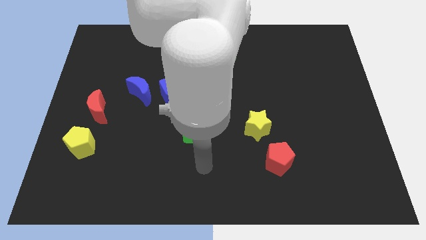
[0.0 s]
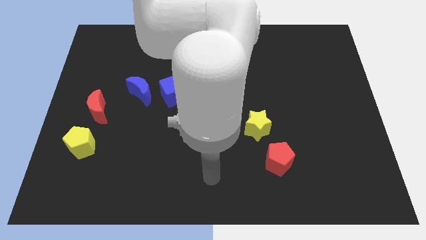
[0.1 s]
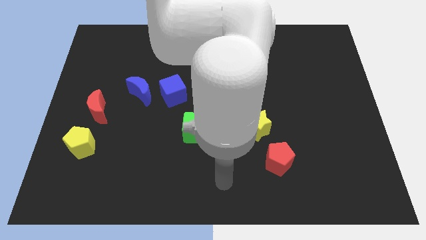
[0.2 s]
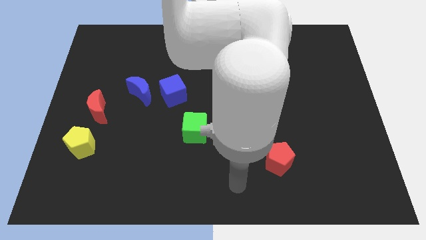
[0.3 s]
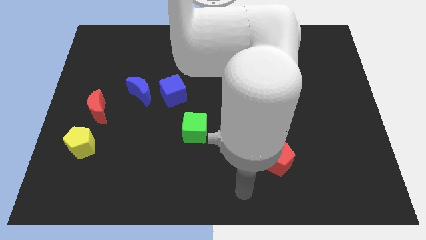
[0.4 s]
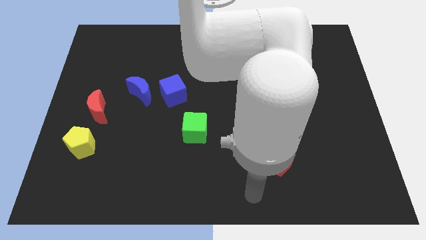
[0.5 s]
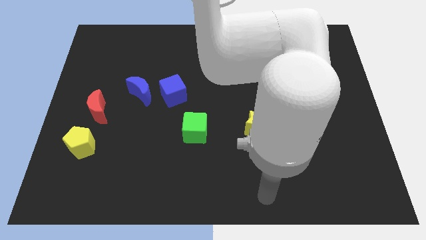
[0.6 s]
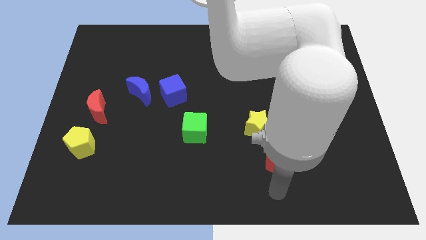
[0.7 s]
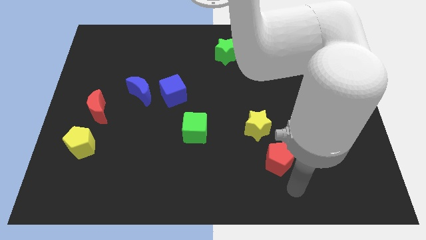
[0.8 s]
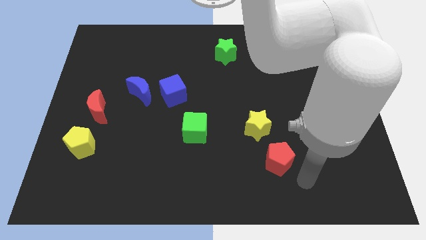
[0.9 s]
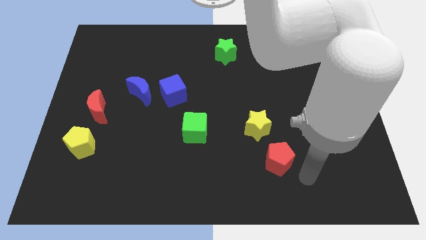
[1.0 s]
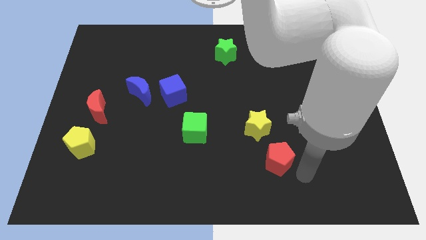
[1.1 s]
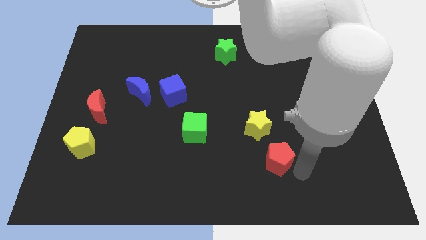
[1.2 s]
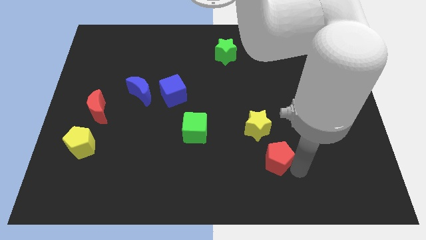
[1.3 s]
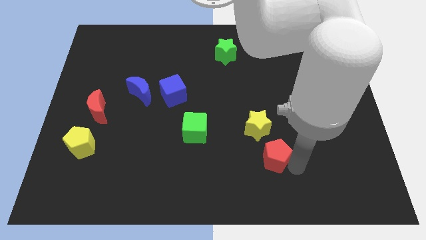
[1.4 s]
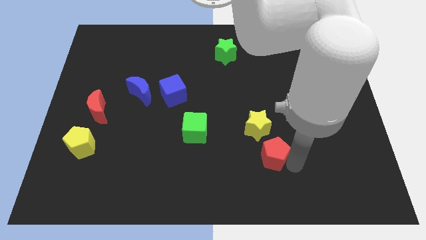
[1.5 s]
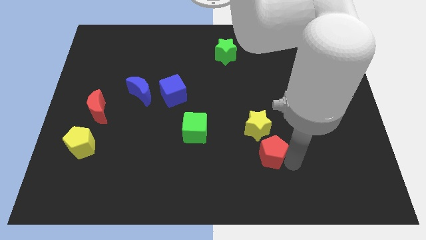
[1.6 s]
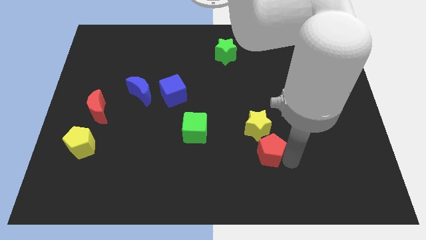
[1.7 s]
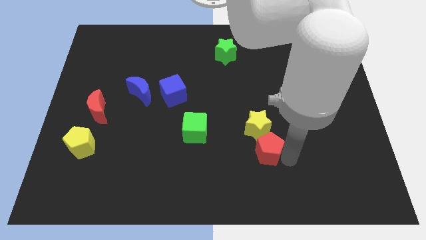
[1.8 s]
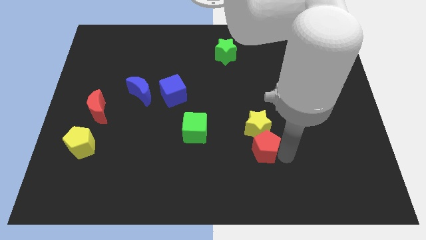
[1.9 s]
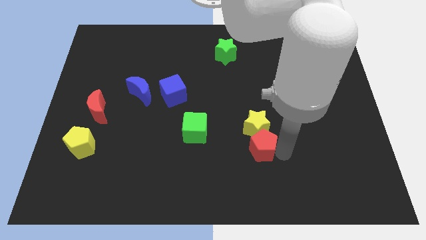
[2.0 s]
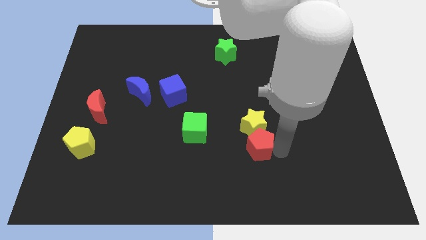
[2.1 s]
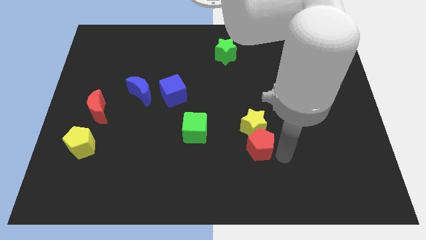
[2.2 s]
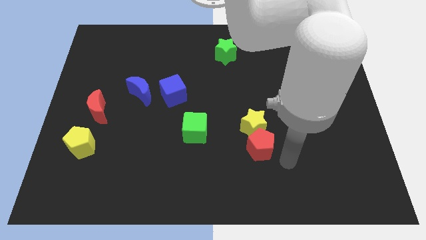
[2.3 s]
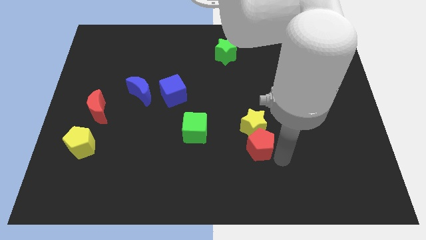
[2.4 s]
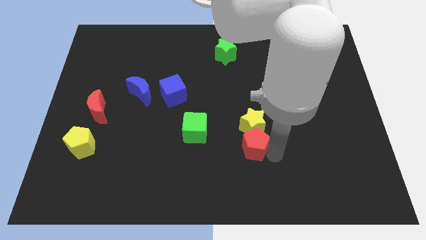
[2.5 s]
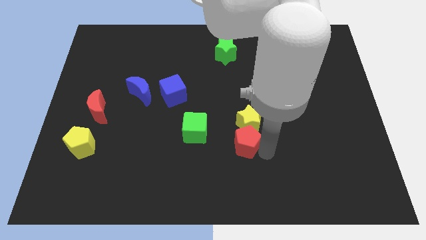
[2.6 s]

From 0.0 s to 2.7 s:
slide the red pentagon up and left a bit

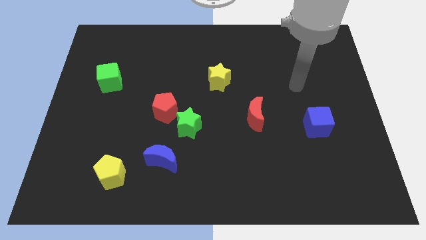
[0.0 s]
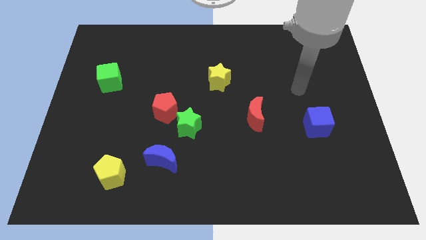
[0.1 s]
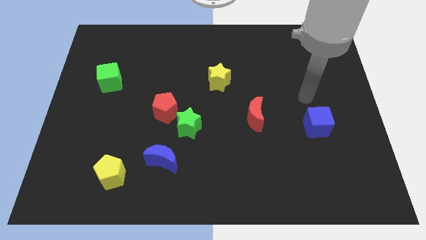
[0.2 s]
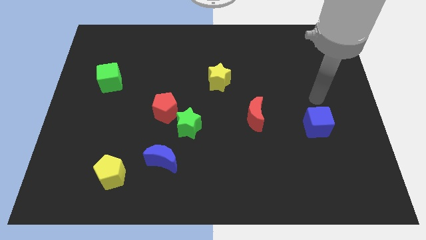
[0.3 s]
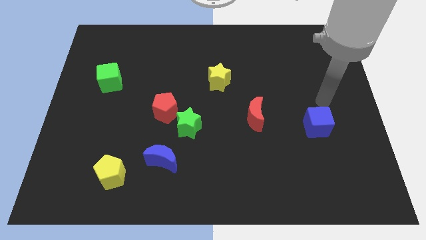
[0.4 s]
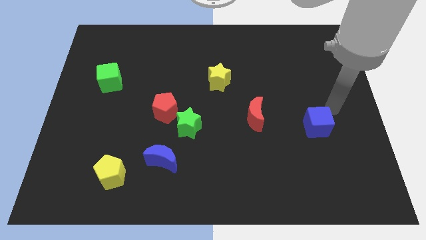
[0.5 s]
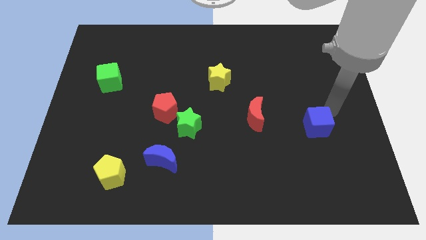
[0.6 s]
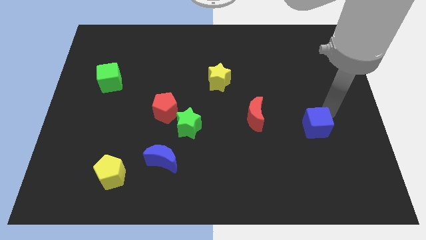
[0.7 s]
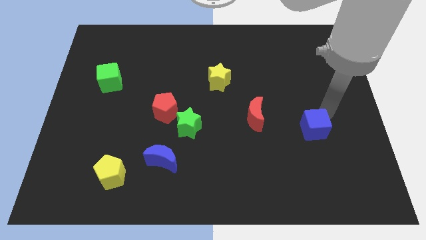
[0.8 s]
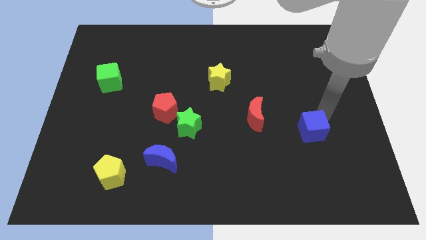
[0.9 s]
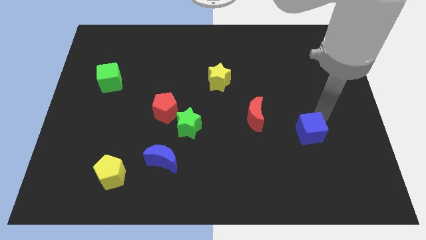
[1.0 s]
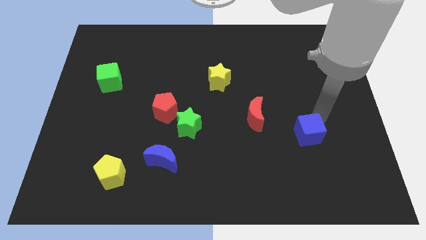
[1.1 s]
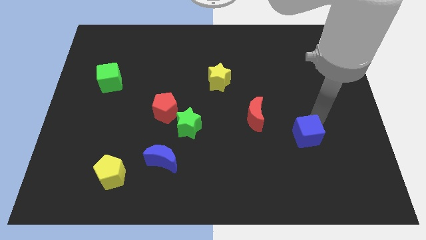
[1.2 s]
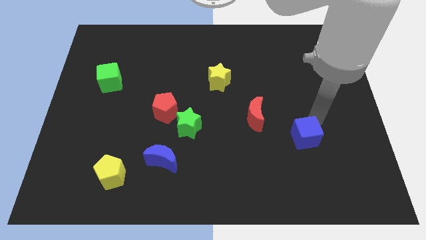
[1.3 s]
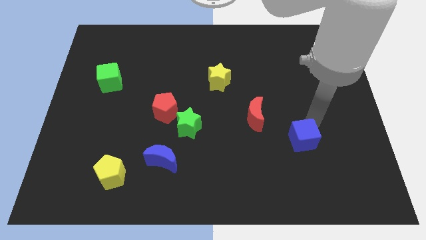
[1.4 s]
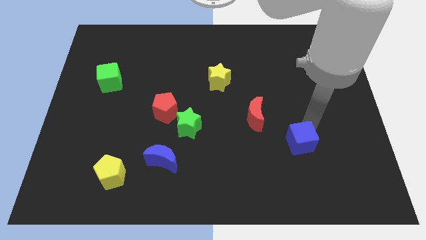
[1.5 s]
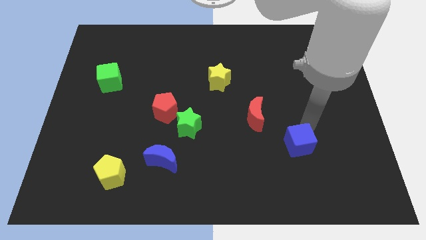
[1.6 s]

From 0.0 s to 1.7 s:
slide the blue cube a bit diagonally downwards and to the left

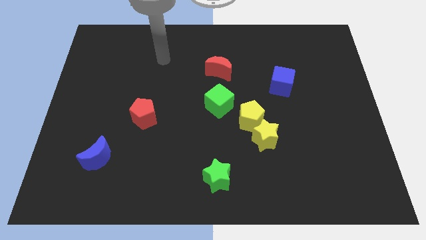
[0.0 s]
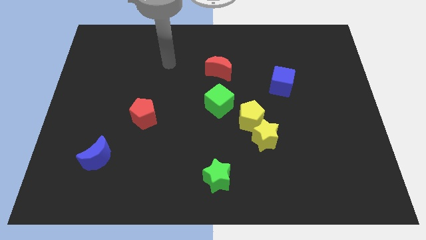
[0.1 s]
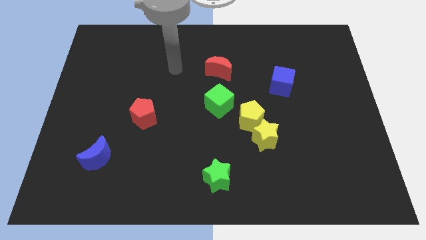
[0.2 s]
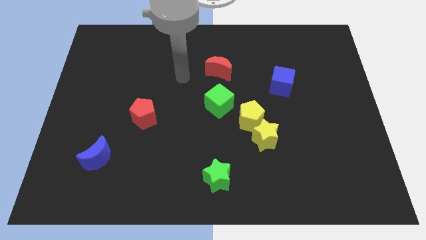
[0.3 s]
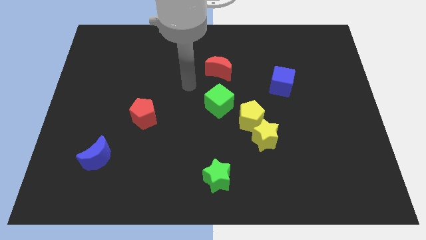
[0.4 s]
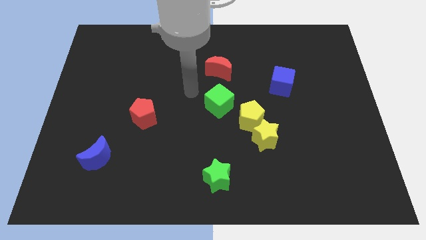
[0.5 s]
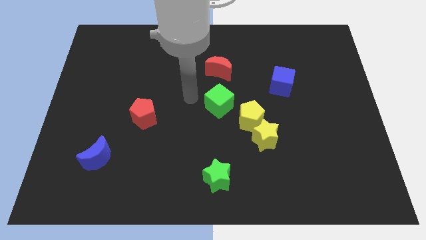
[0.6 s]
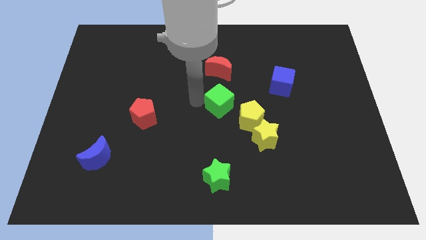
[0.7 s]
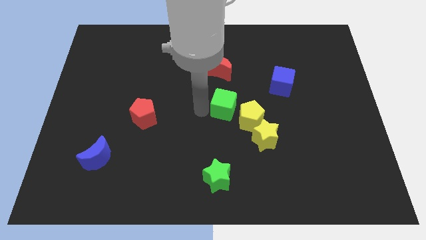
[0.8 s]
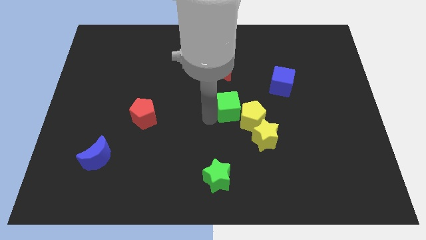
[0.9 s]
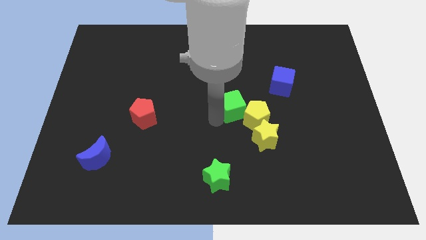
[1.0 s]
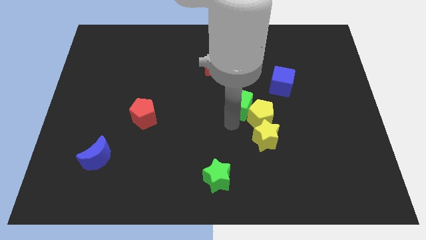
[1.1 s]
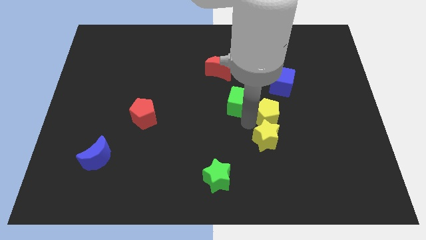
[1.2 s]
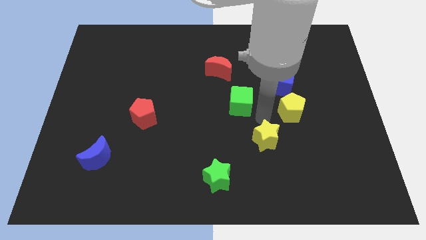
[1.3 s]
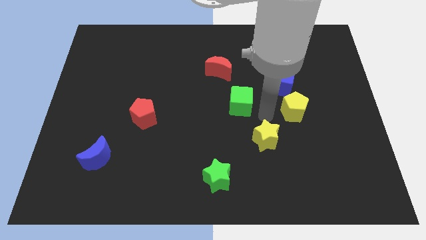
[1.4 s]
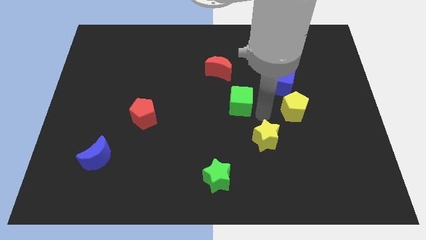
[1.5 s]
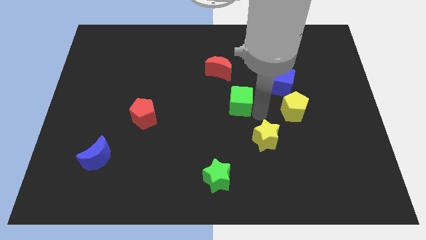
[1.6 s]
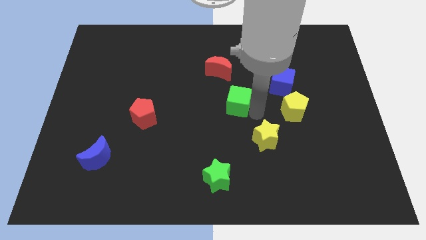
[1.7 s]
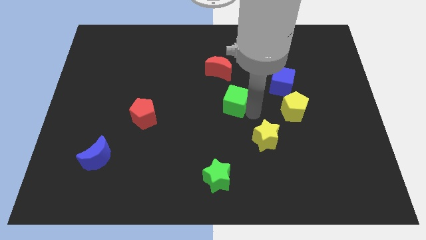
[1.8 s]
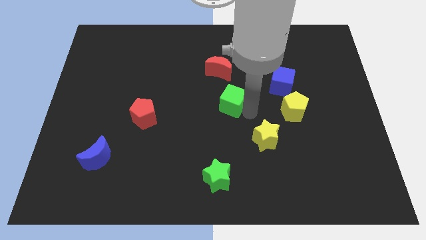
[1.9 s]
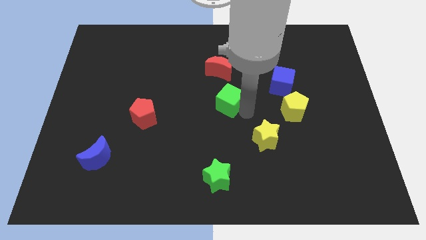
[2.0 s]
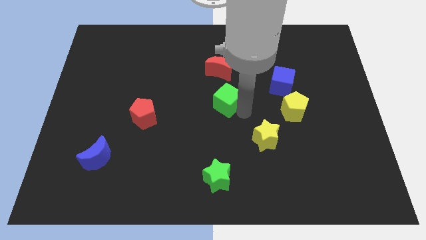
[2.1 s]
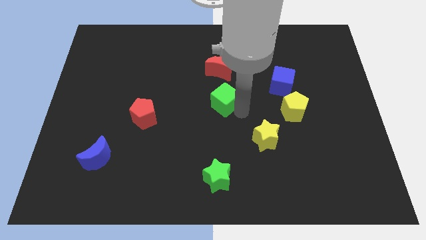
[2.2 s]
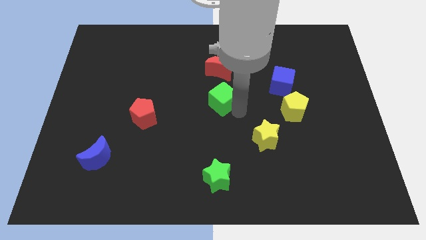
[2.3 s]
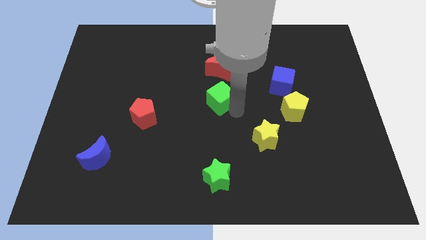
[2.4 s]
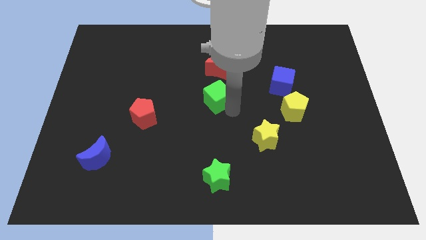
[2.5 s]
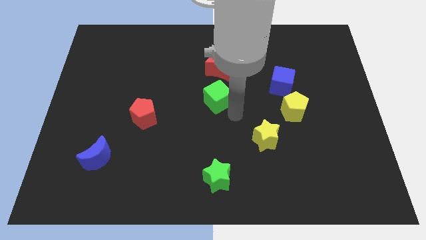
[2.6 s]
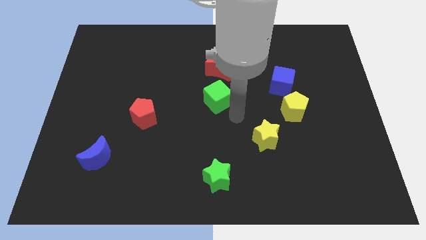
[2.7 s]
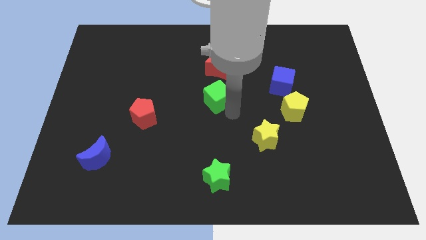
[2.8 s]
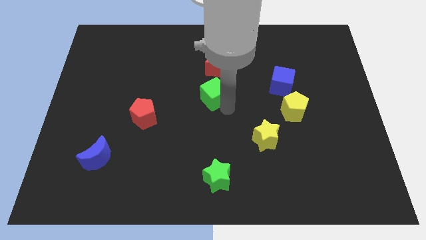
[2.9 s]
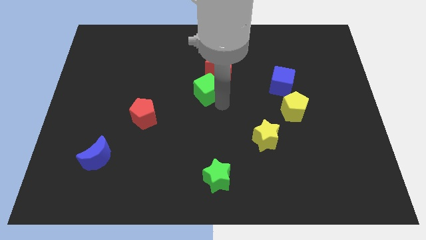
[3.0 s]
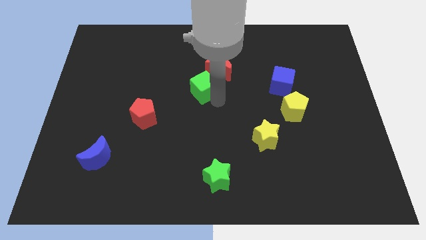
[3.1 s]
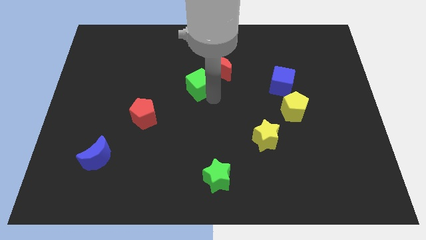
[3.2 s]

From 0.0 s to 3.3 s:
slightly move the green cube diagonally up and left

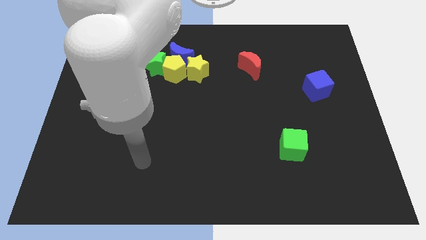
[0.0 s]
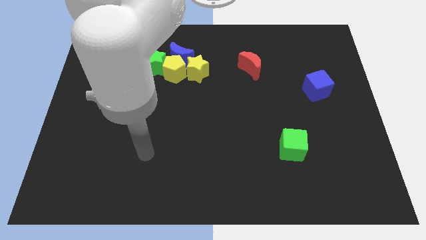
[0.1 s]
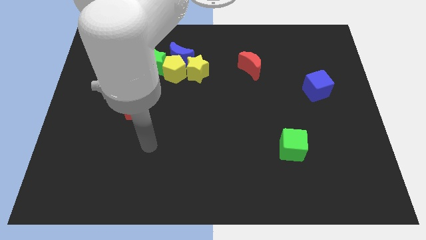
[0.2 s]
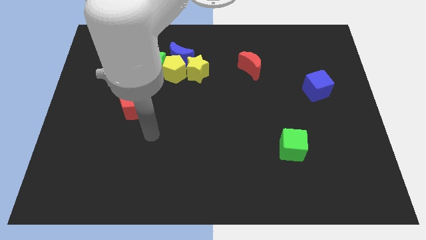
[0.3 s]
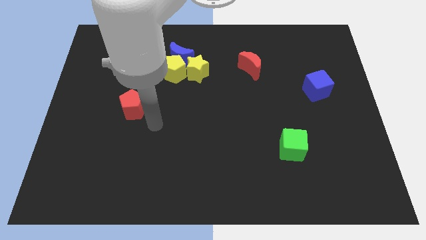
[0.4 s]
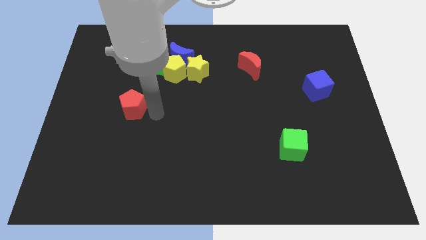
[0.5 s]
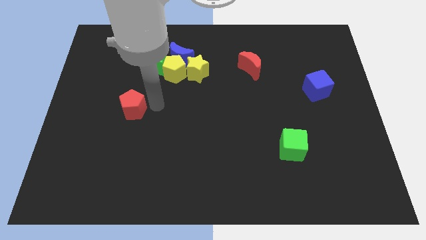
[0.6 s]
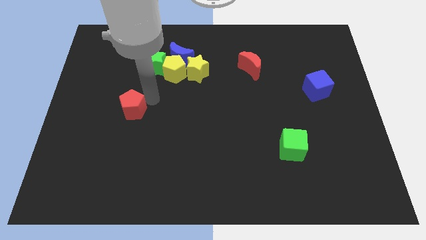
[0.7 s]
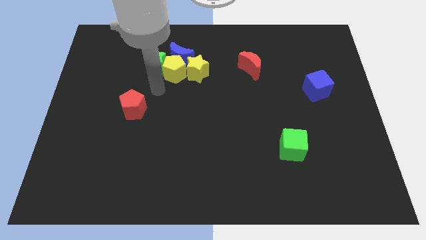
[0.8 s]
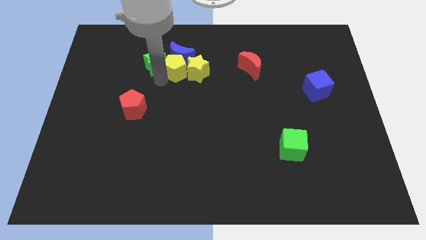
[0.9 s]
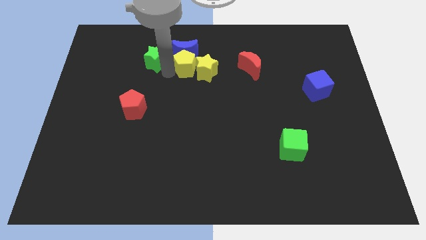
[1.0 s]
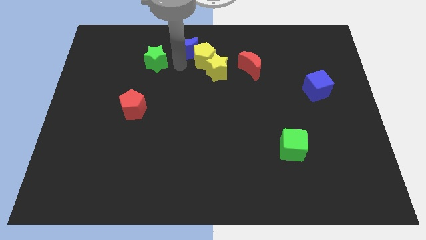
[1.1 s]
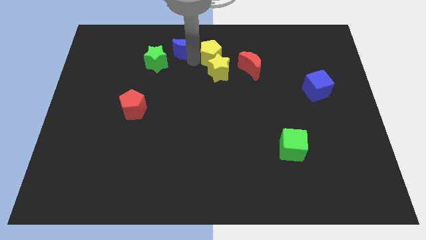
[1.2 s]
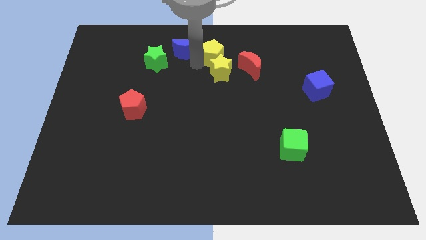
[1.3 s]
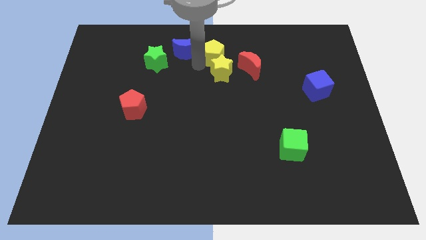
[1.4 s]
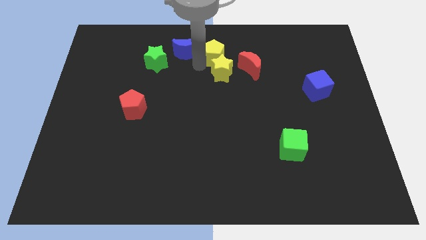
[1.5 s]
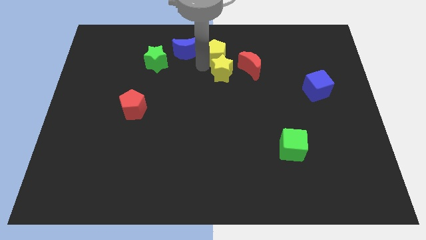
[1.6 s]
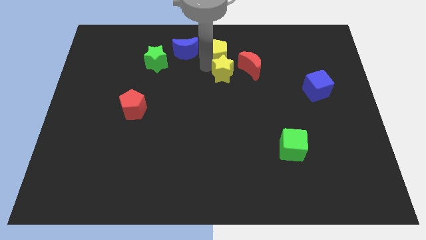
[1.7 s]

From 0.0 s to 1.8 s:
slide the yellow star right somewhat
